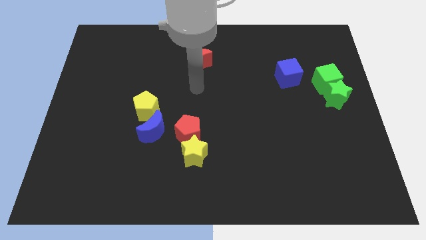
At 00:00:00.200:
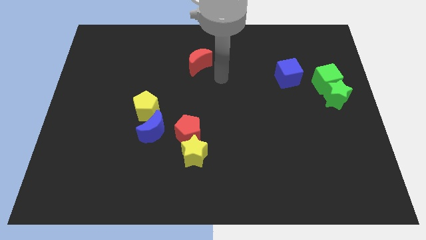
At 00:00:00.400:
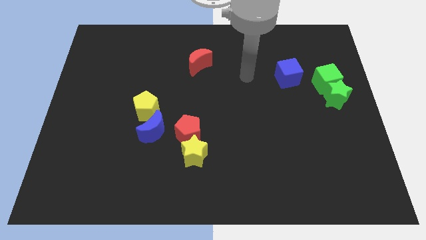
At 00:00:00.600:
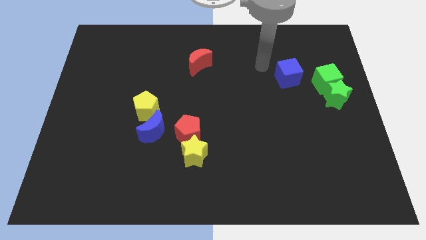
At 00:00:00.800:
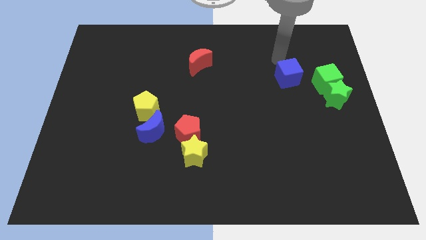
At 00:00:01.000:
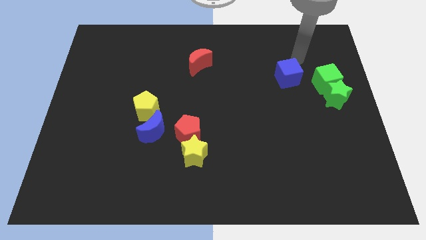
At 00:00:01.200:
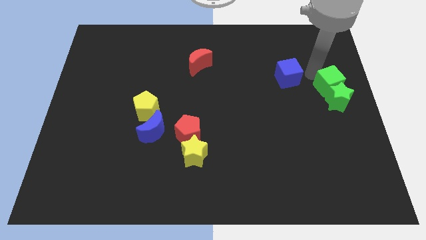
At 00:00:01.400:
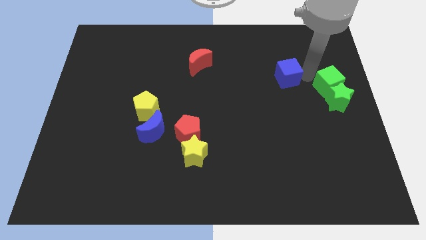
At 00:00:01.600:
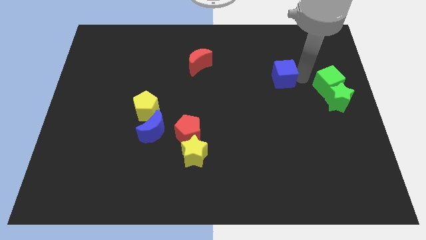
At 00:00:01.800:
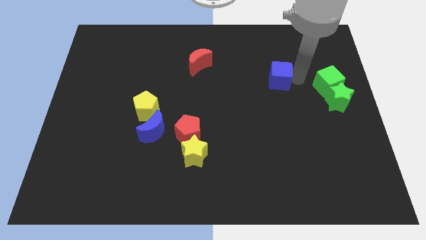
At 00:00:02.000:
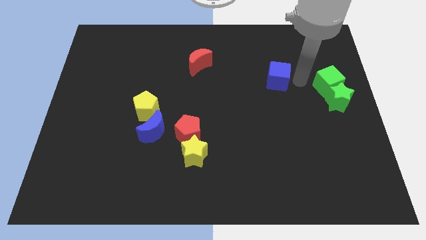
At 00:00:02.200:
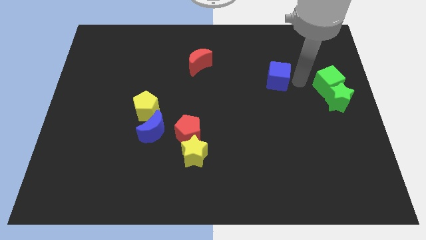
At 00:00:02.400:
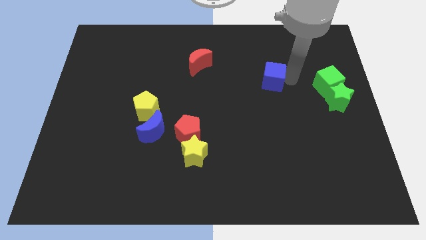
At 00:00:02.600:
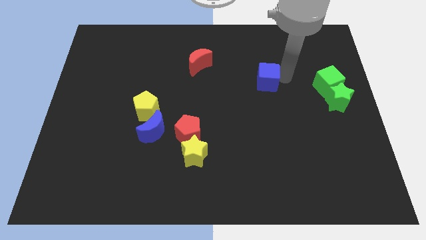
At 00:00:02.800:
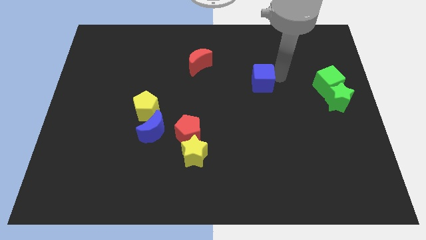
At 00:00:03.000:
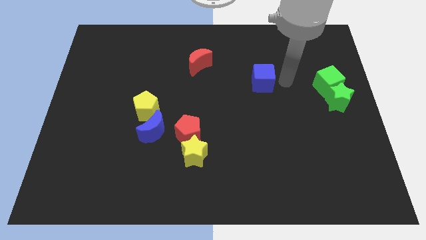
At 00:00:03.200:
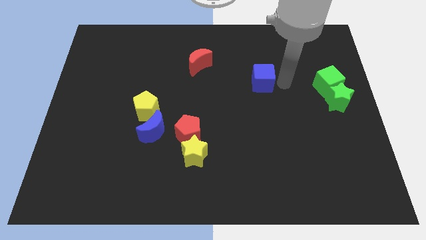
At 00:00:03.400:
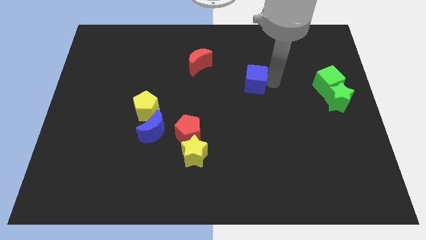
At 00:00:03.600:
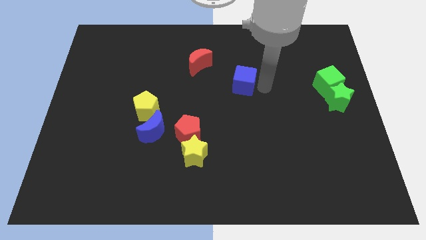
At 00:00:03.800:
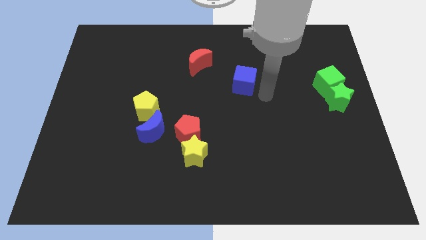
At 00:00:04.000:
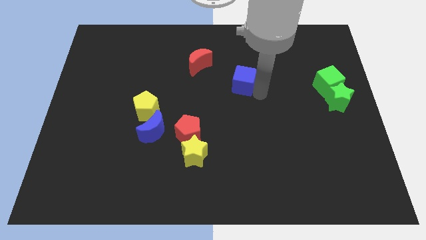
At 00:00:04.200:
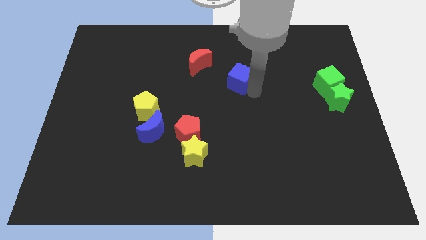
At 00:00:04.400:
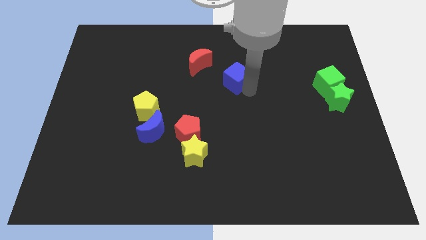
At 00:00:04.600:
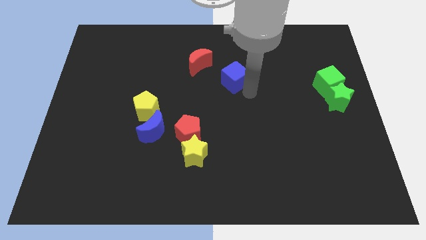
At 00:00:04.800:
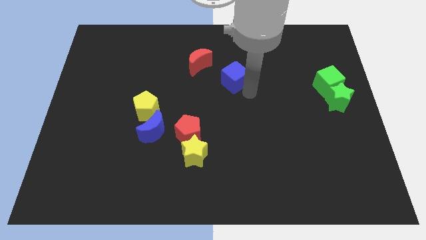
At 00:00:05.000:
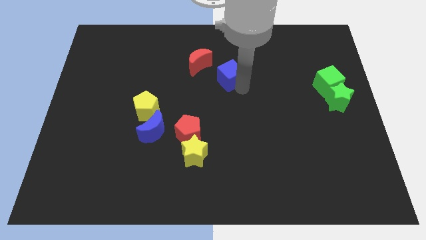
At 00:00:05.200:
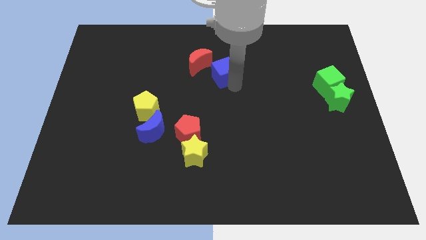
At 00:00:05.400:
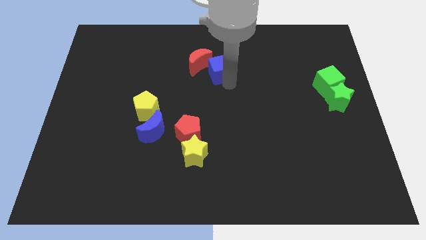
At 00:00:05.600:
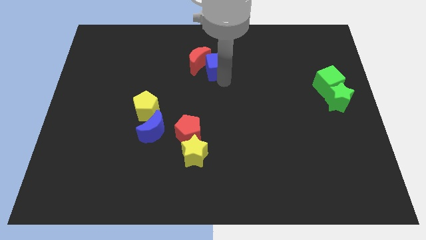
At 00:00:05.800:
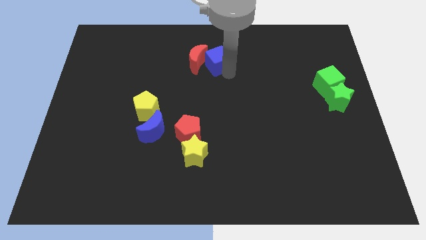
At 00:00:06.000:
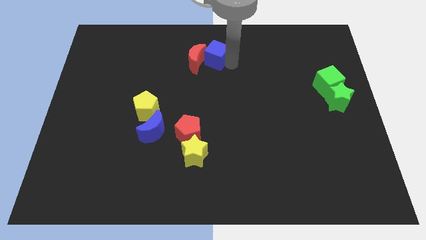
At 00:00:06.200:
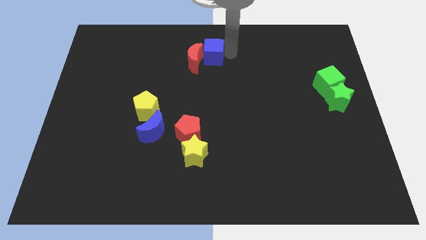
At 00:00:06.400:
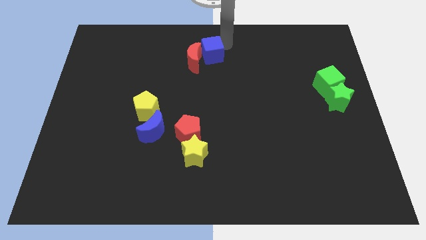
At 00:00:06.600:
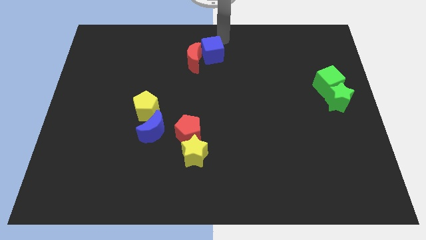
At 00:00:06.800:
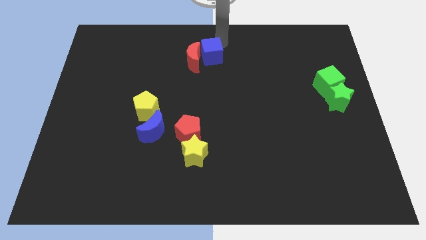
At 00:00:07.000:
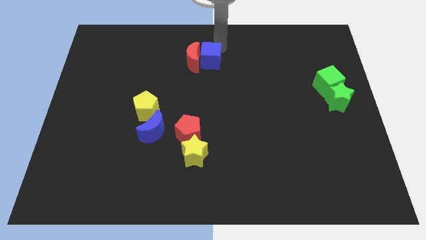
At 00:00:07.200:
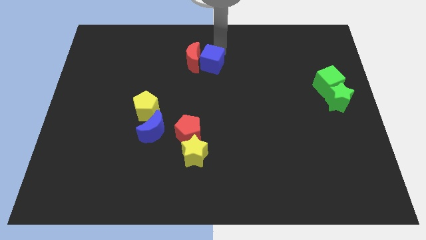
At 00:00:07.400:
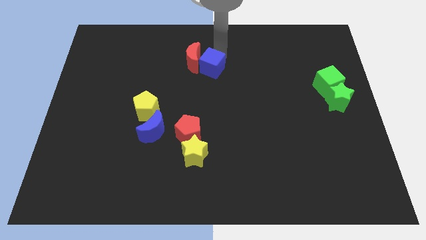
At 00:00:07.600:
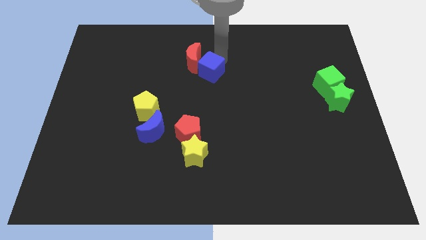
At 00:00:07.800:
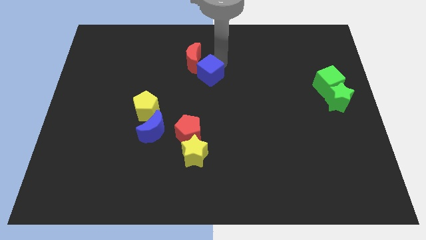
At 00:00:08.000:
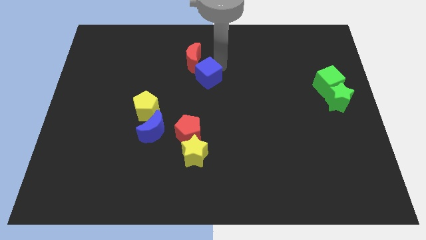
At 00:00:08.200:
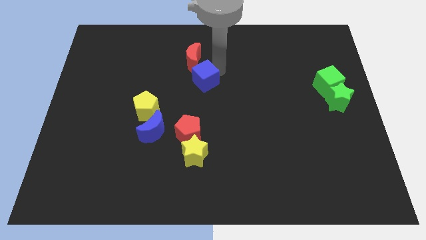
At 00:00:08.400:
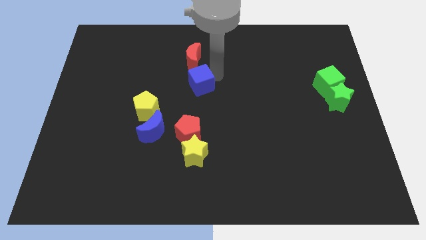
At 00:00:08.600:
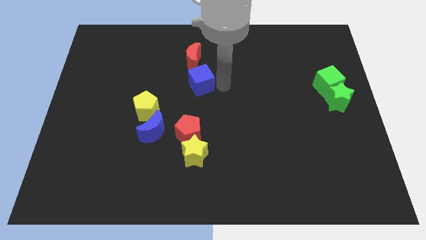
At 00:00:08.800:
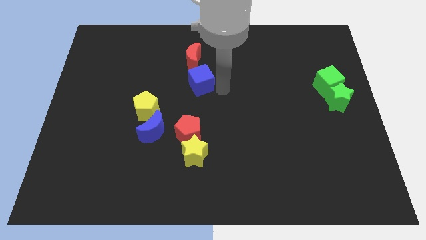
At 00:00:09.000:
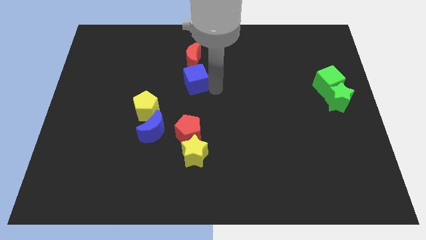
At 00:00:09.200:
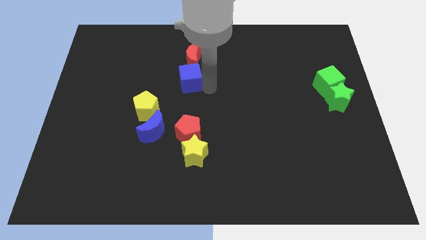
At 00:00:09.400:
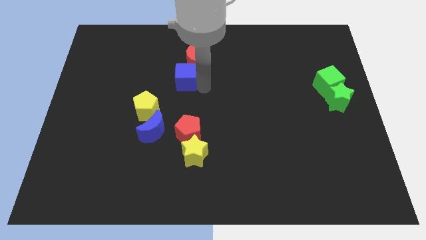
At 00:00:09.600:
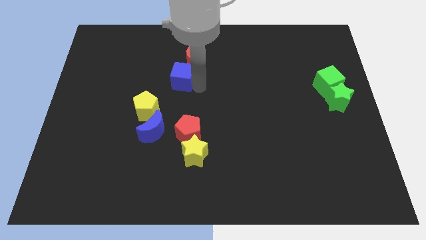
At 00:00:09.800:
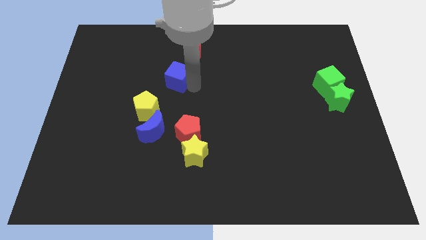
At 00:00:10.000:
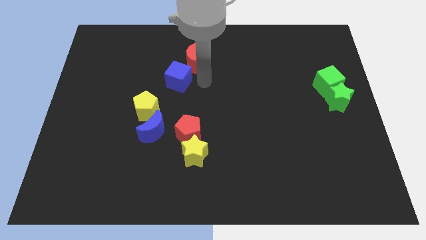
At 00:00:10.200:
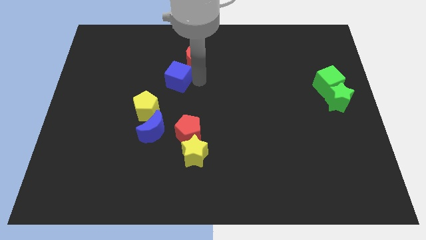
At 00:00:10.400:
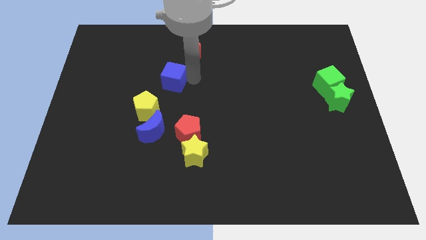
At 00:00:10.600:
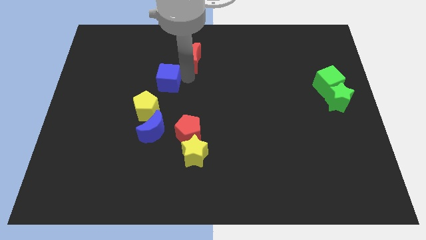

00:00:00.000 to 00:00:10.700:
push the blue cube above the yellow pentagon

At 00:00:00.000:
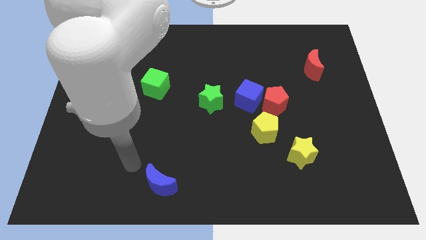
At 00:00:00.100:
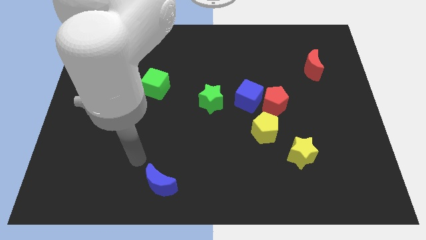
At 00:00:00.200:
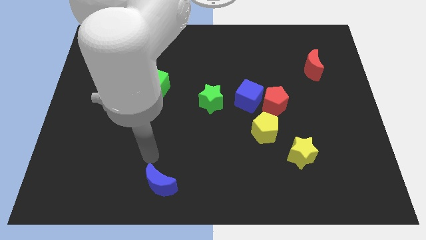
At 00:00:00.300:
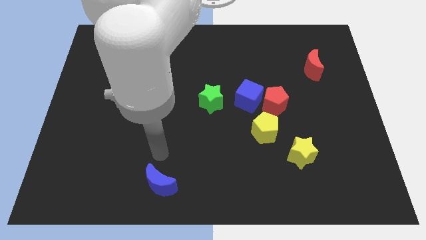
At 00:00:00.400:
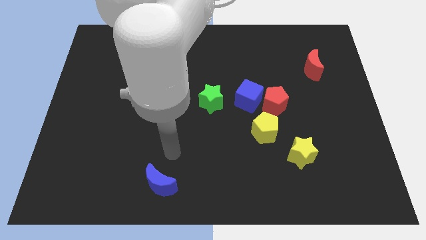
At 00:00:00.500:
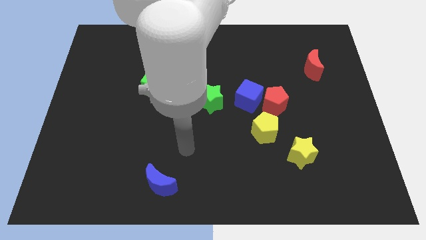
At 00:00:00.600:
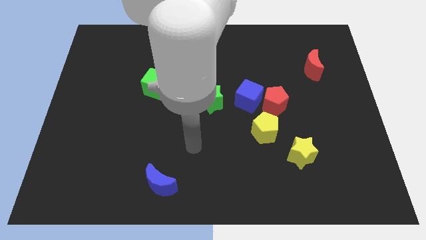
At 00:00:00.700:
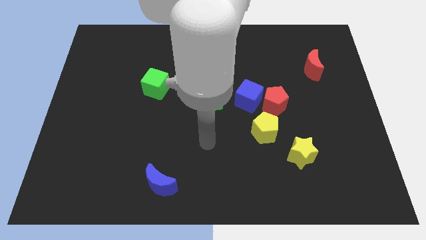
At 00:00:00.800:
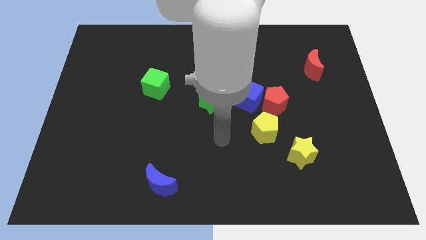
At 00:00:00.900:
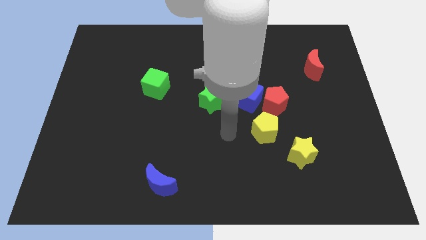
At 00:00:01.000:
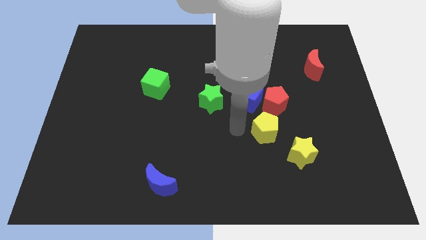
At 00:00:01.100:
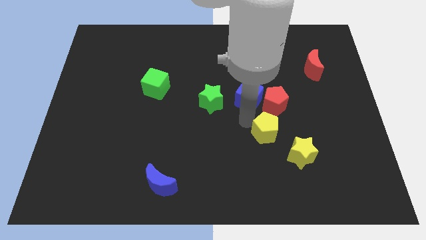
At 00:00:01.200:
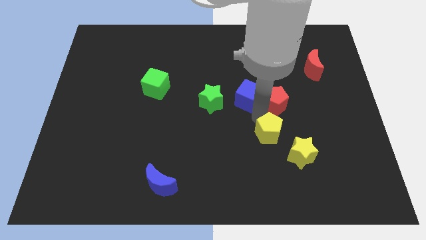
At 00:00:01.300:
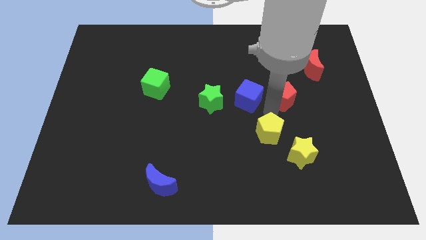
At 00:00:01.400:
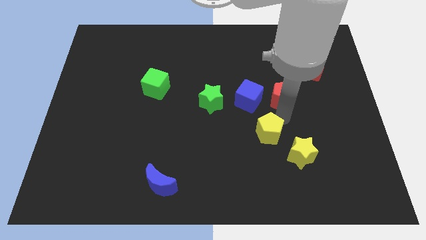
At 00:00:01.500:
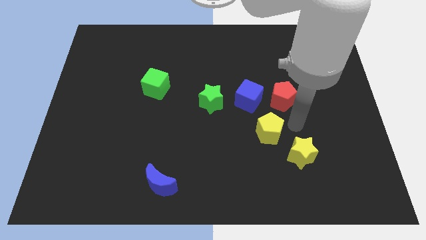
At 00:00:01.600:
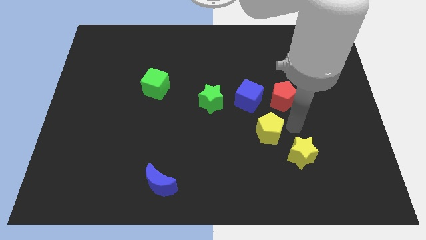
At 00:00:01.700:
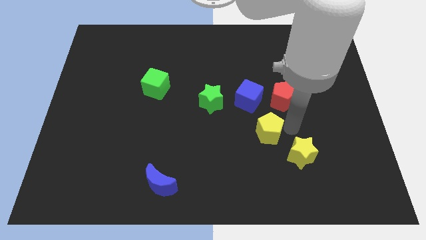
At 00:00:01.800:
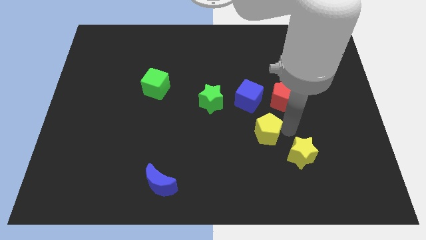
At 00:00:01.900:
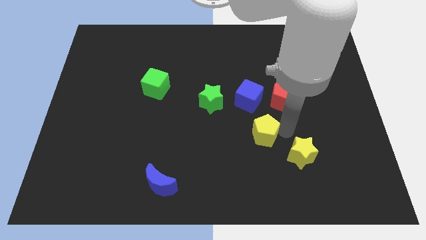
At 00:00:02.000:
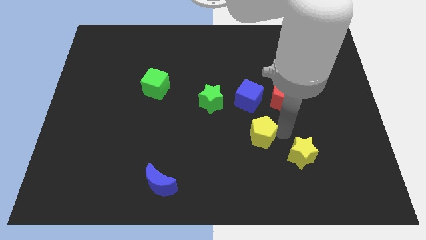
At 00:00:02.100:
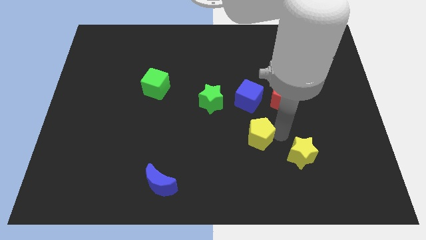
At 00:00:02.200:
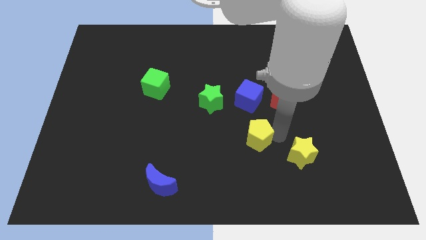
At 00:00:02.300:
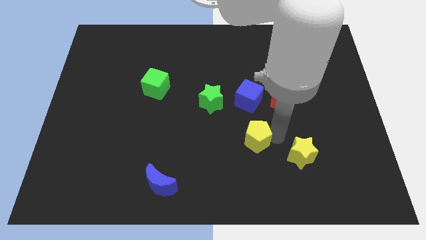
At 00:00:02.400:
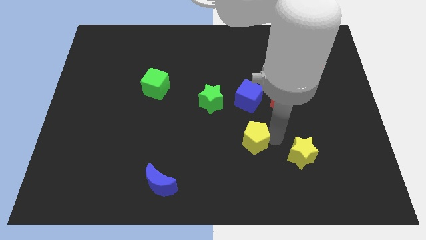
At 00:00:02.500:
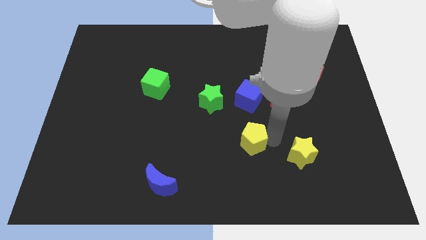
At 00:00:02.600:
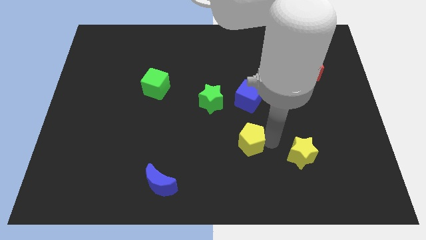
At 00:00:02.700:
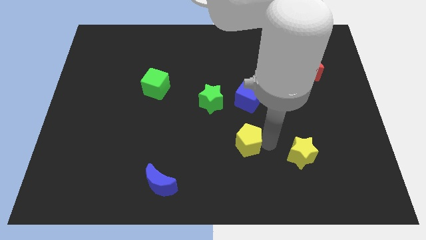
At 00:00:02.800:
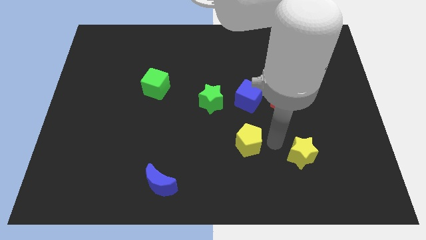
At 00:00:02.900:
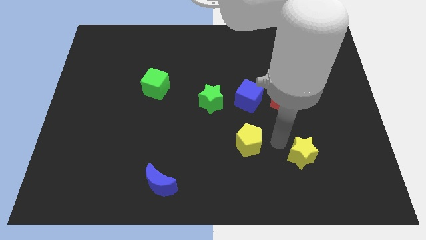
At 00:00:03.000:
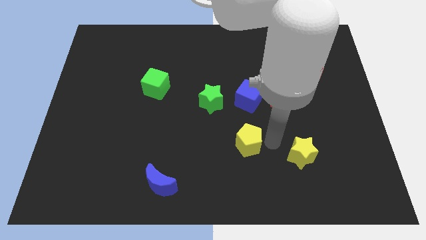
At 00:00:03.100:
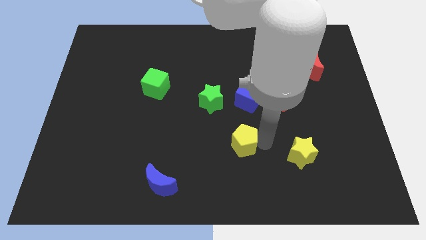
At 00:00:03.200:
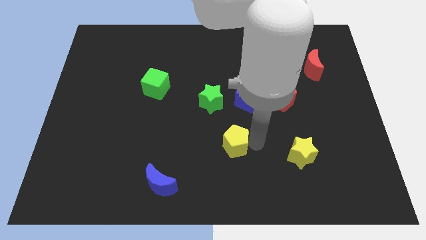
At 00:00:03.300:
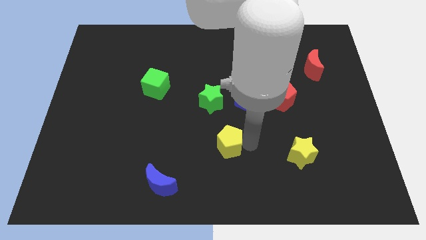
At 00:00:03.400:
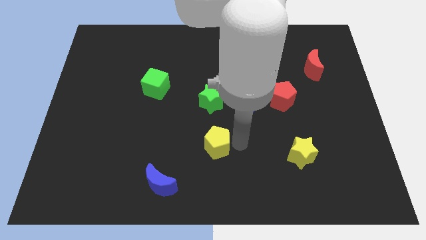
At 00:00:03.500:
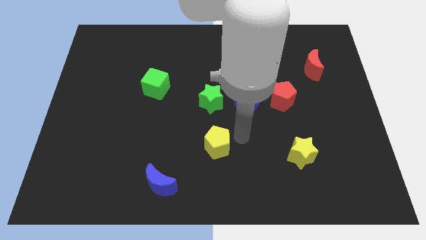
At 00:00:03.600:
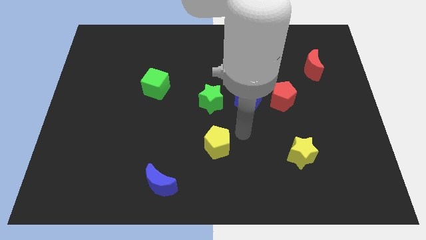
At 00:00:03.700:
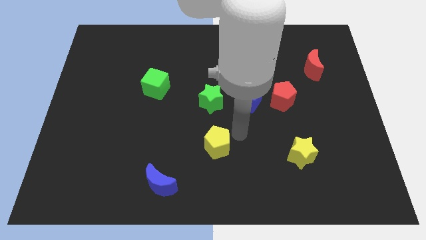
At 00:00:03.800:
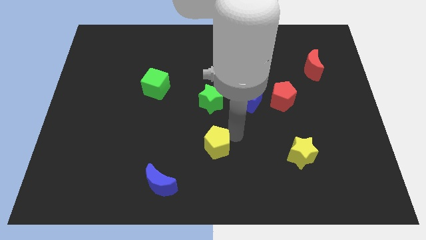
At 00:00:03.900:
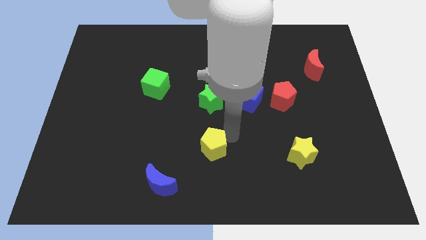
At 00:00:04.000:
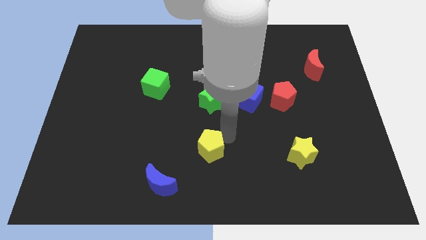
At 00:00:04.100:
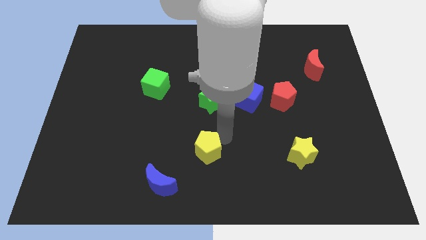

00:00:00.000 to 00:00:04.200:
move the yellow pentagon to the top right side of the blue moon
